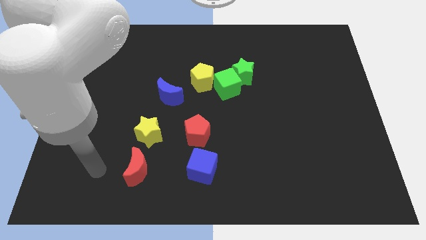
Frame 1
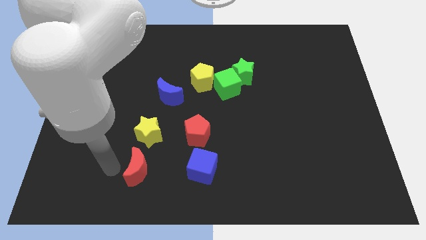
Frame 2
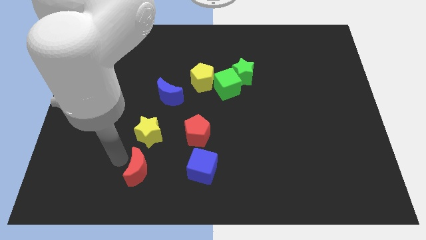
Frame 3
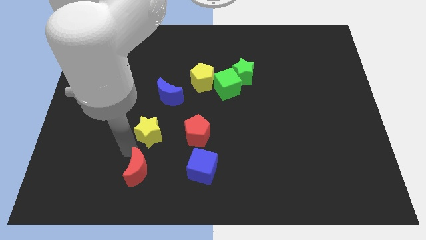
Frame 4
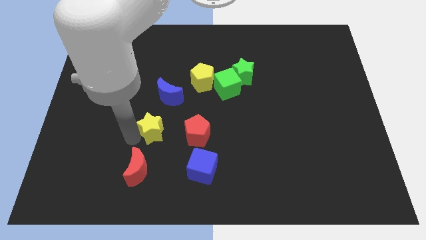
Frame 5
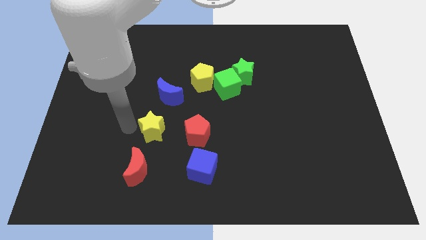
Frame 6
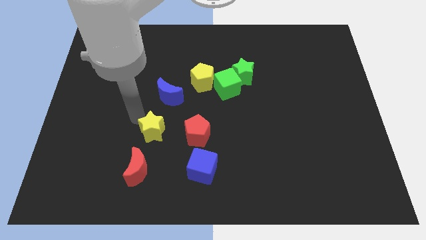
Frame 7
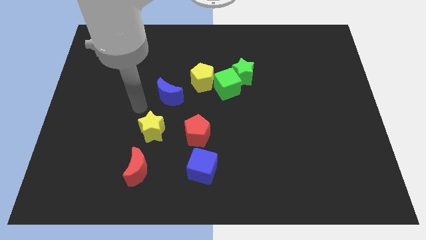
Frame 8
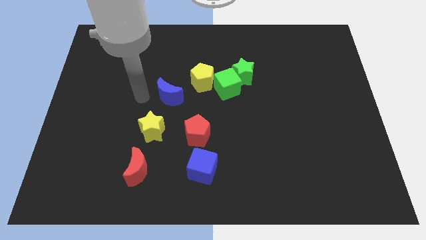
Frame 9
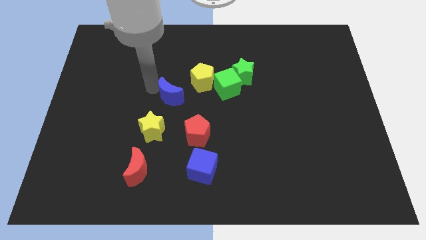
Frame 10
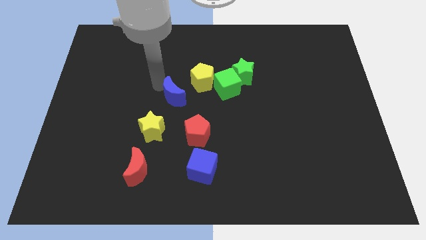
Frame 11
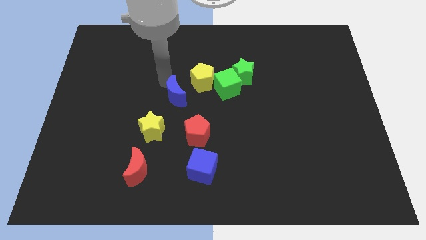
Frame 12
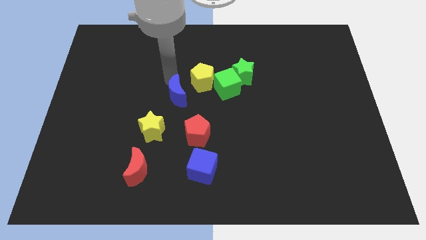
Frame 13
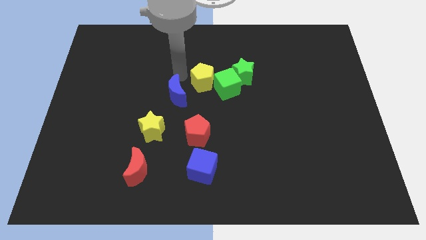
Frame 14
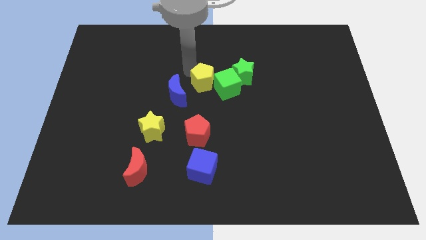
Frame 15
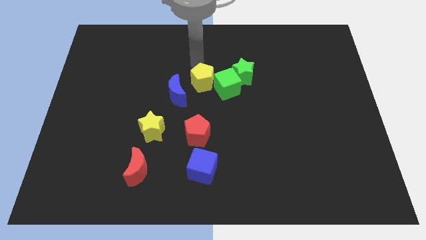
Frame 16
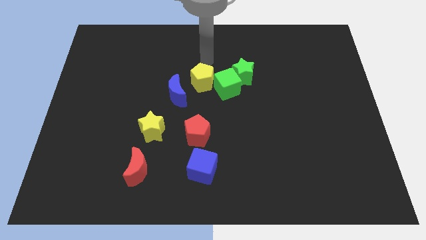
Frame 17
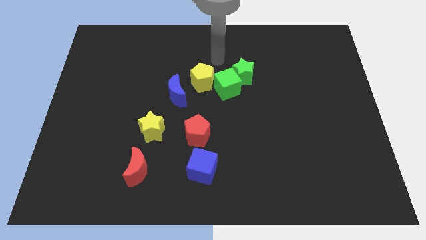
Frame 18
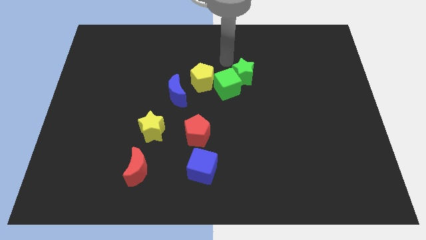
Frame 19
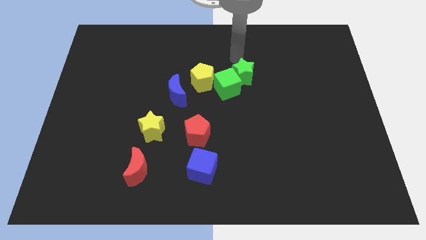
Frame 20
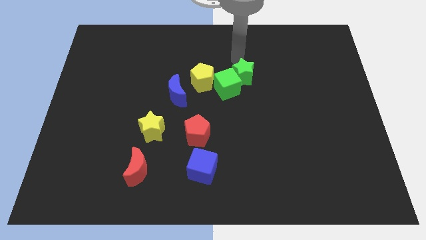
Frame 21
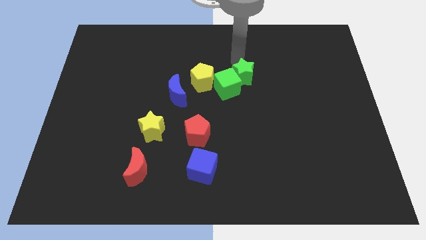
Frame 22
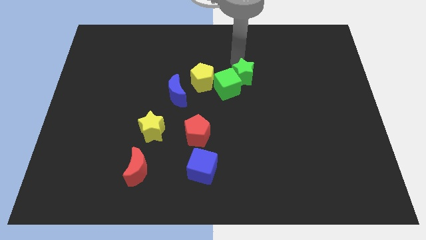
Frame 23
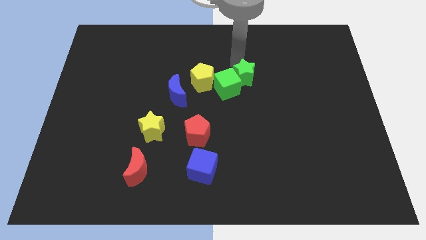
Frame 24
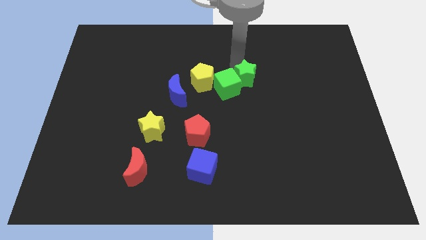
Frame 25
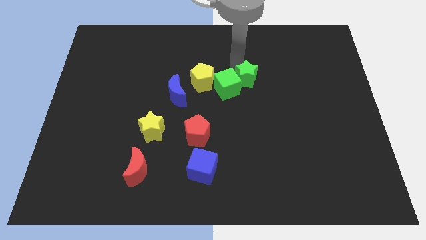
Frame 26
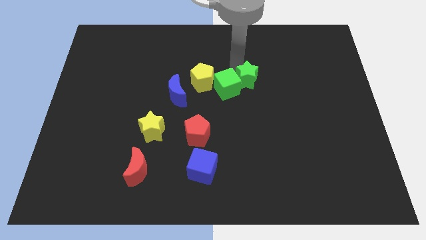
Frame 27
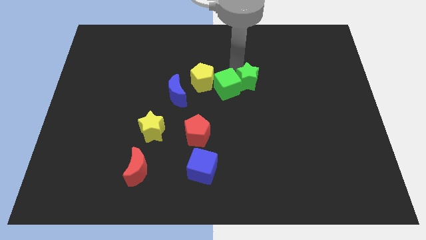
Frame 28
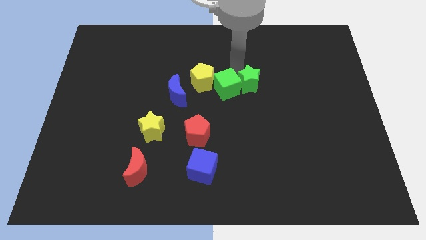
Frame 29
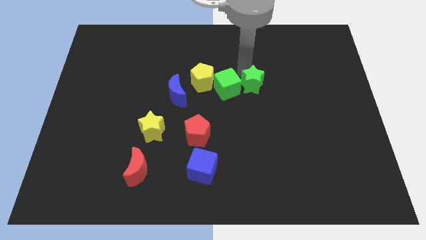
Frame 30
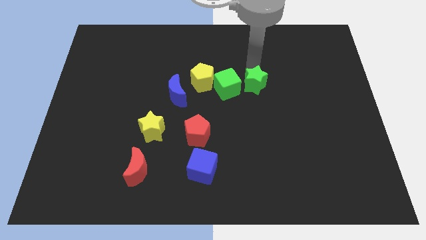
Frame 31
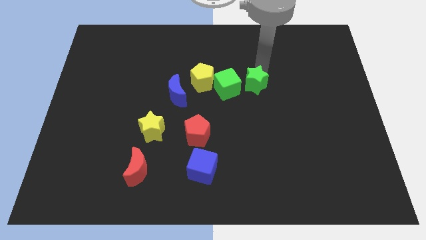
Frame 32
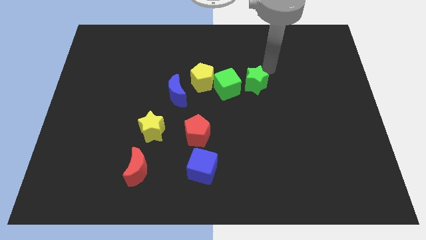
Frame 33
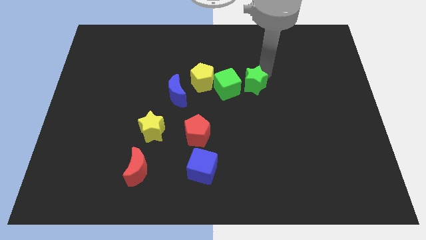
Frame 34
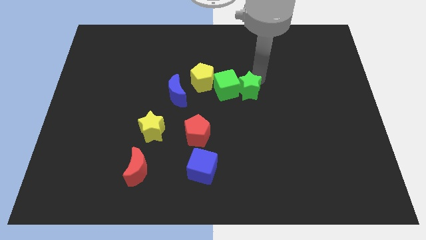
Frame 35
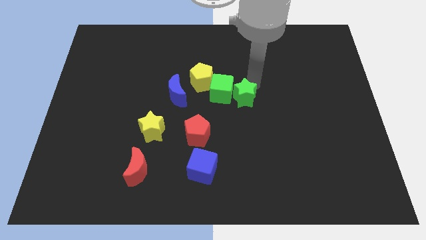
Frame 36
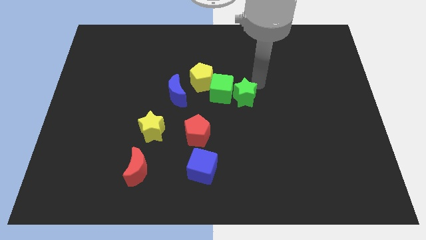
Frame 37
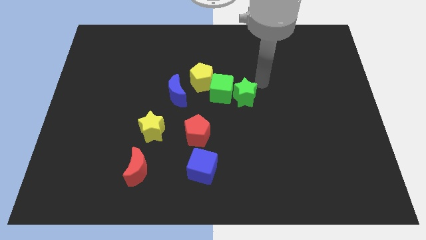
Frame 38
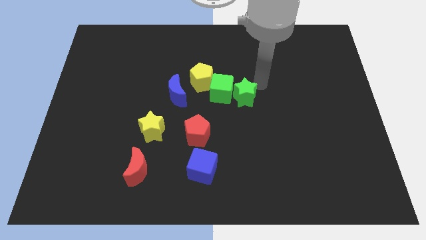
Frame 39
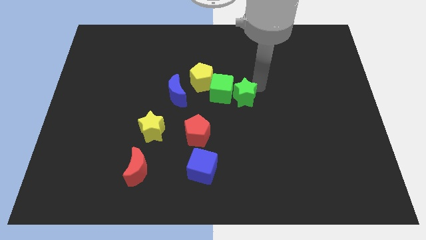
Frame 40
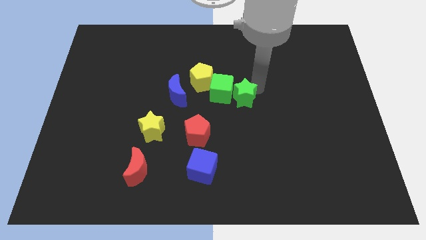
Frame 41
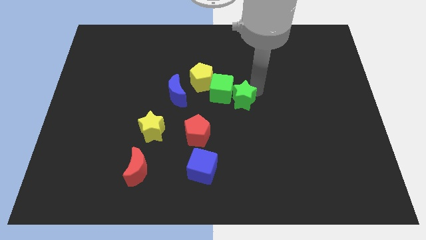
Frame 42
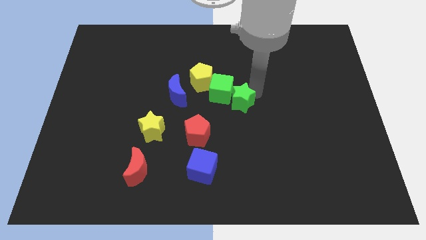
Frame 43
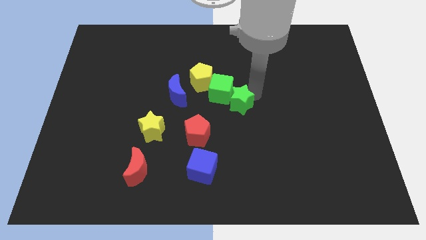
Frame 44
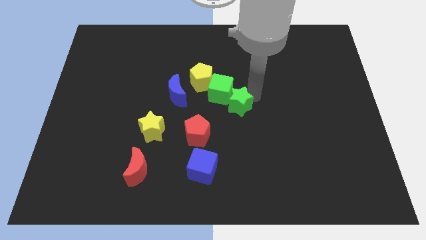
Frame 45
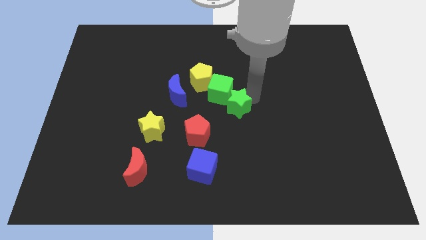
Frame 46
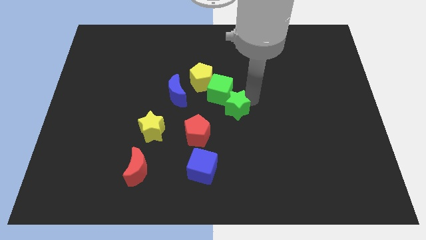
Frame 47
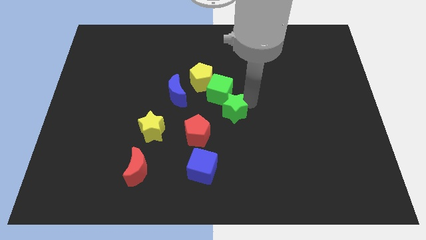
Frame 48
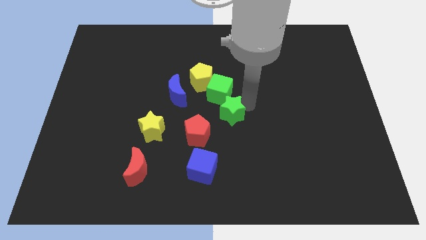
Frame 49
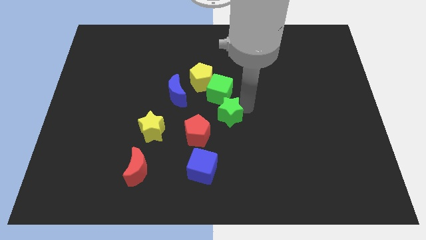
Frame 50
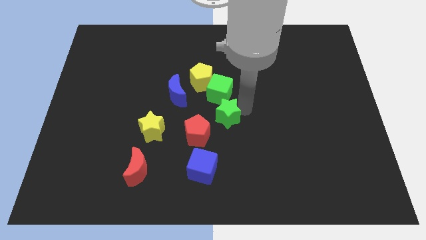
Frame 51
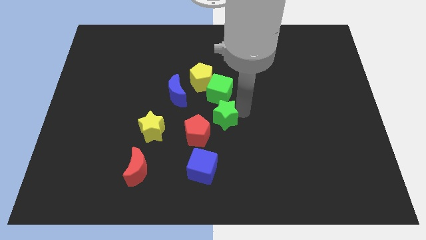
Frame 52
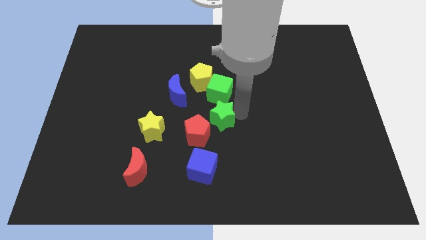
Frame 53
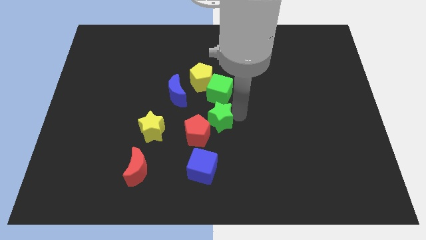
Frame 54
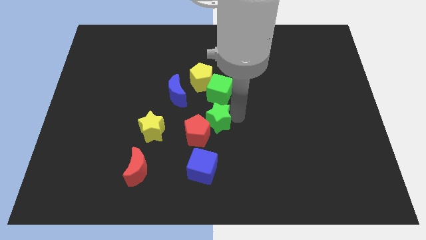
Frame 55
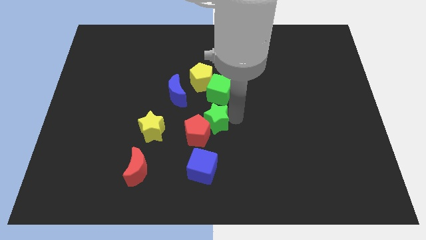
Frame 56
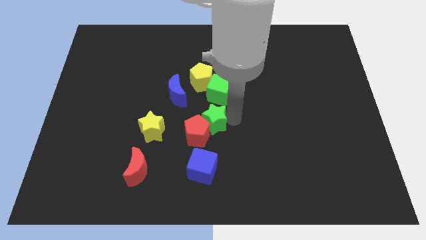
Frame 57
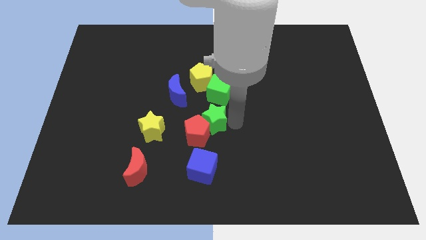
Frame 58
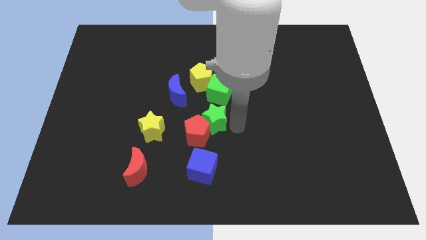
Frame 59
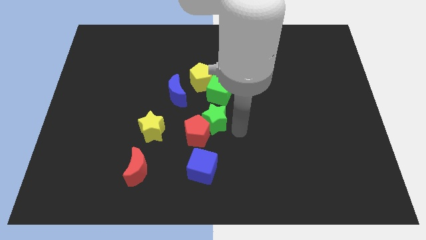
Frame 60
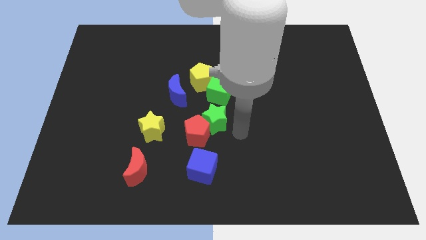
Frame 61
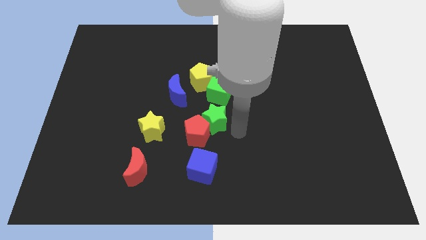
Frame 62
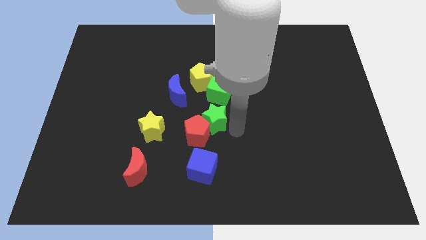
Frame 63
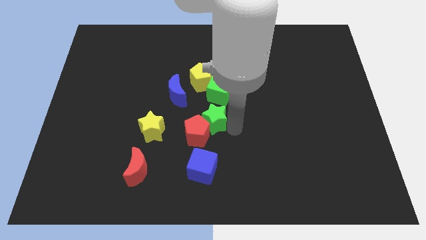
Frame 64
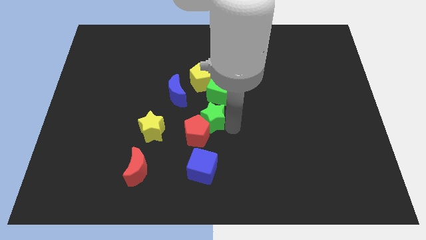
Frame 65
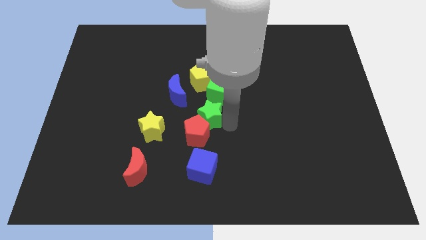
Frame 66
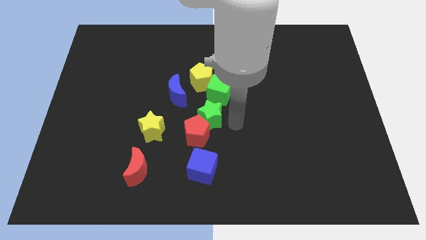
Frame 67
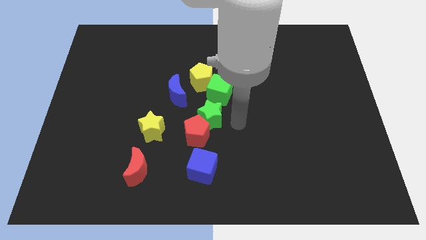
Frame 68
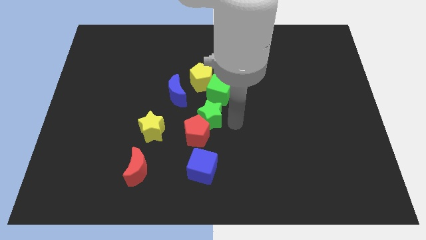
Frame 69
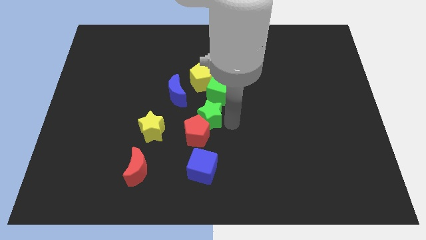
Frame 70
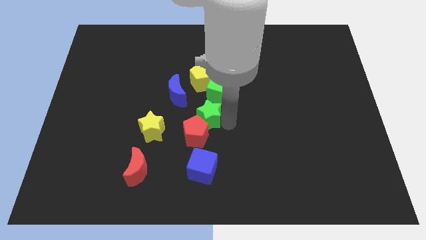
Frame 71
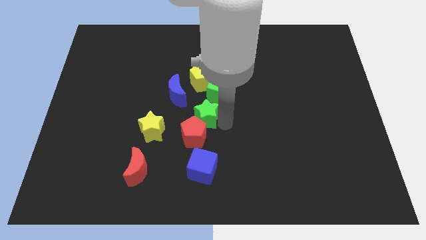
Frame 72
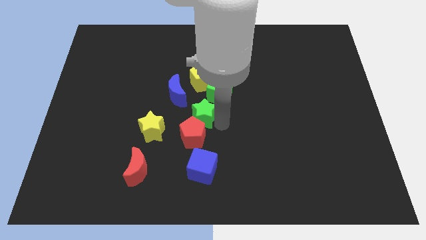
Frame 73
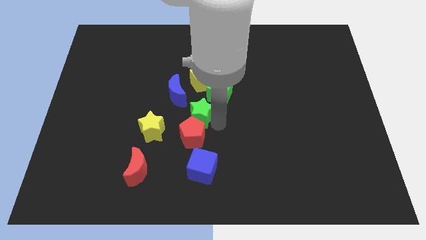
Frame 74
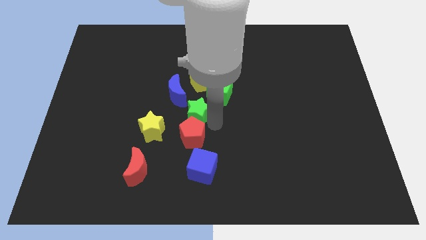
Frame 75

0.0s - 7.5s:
slide the green star to the top right of the yellow star
